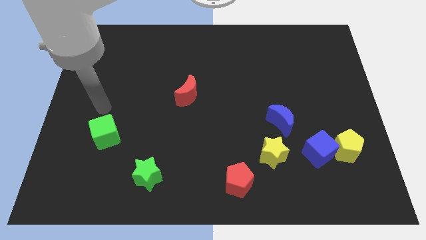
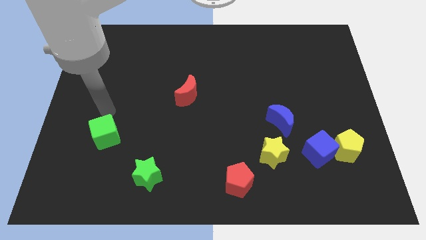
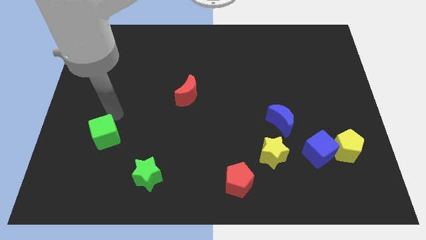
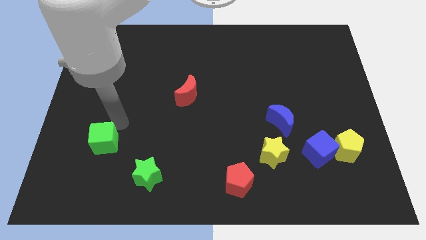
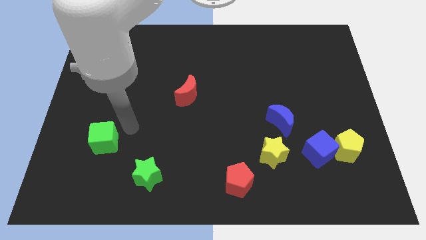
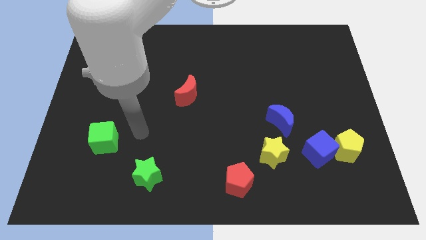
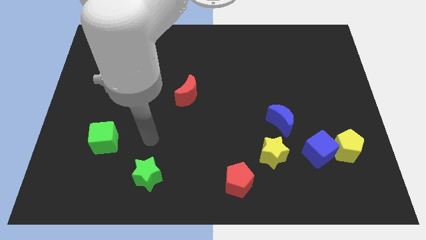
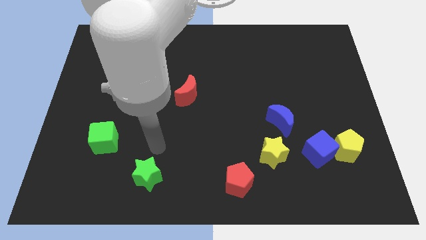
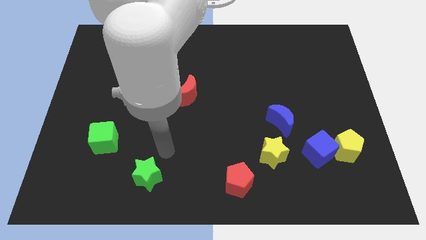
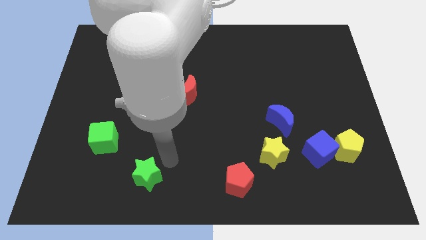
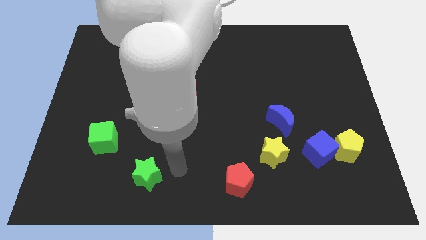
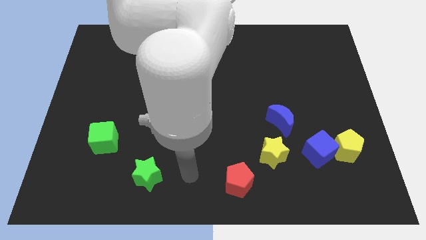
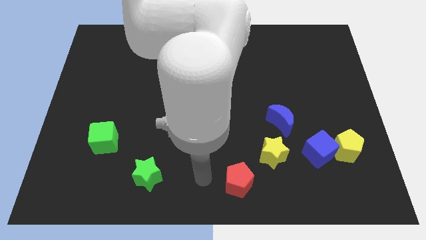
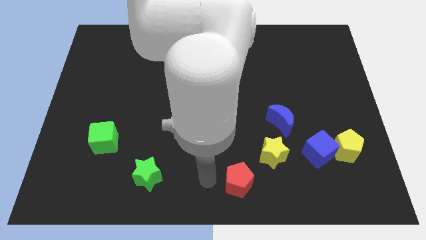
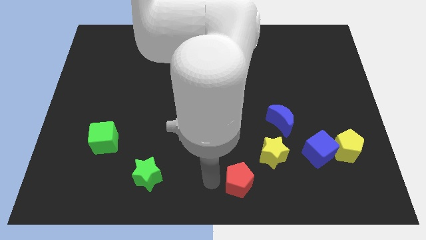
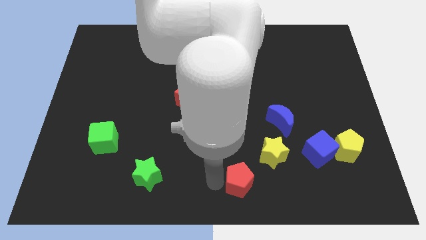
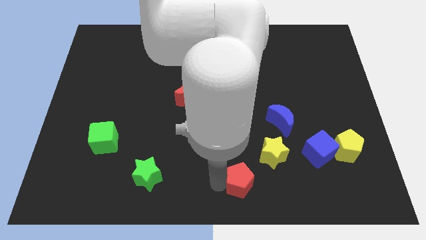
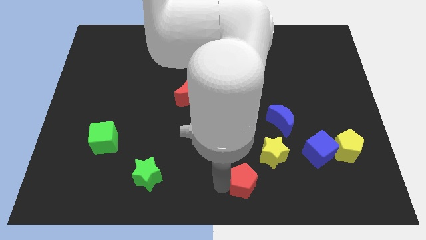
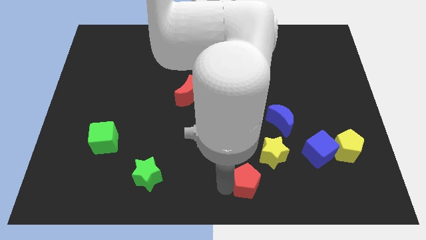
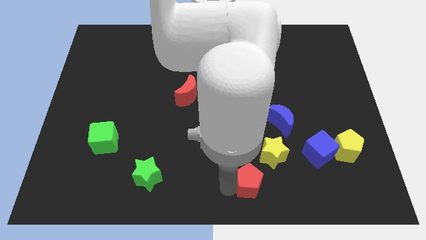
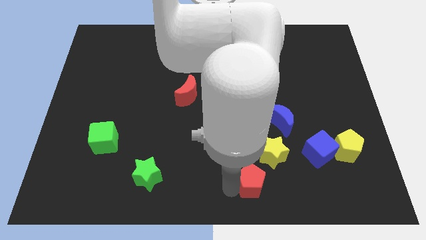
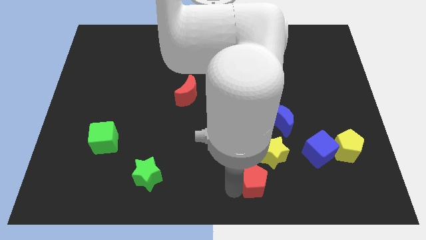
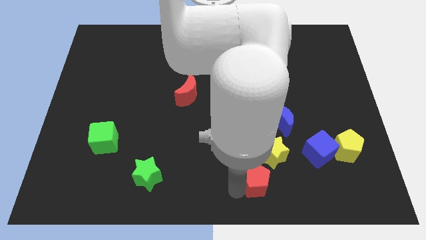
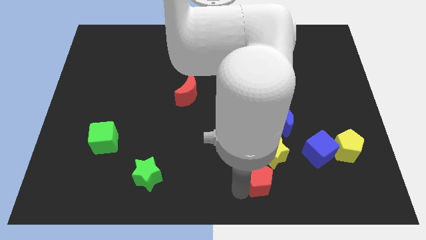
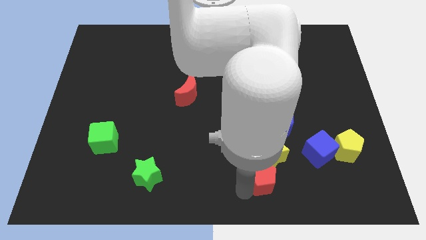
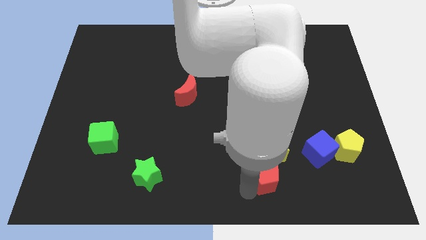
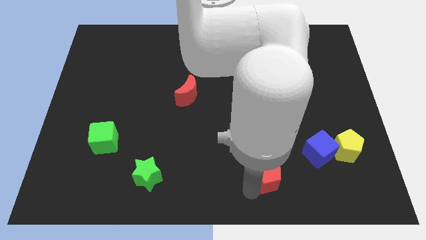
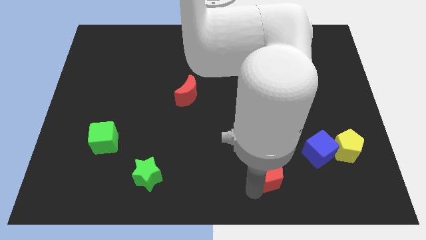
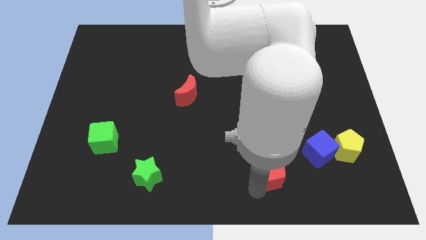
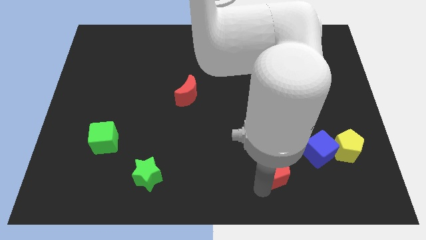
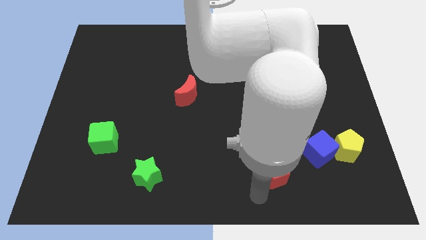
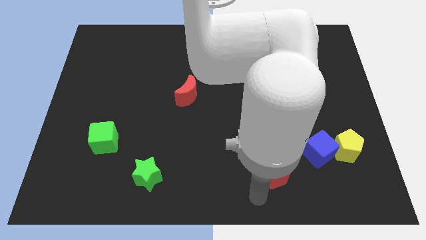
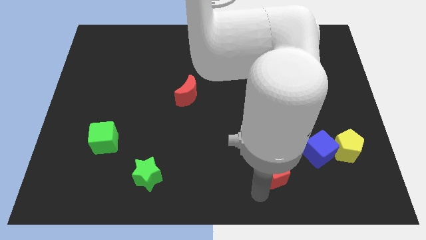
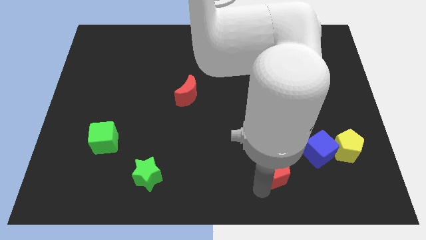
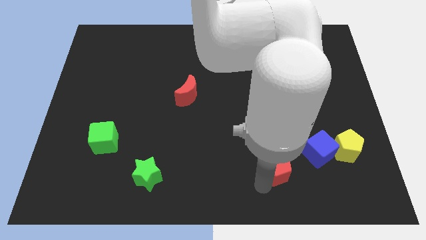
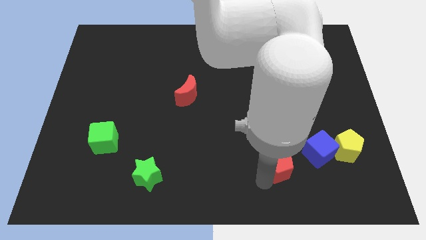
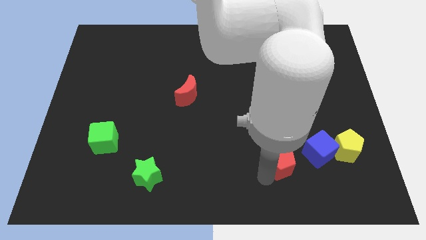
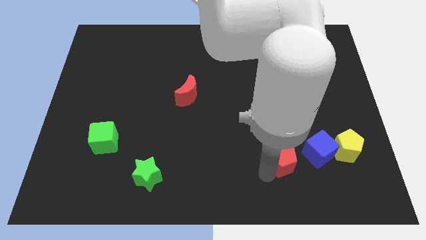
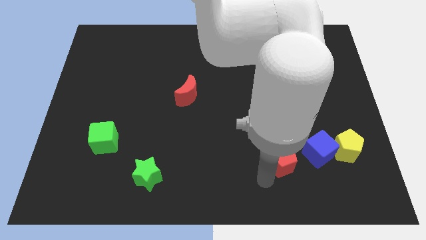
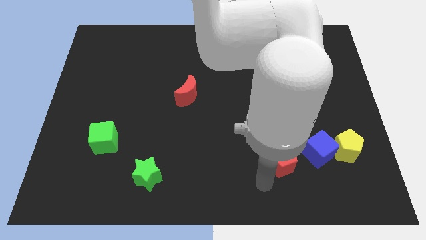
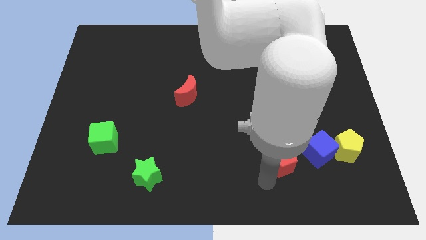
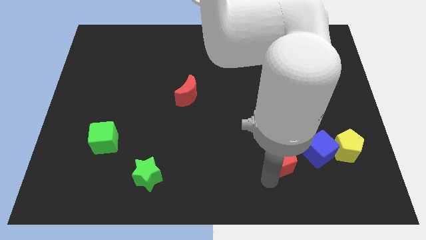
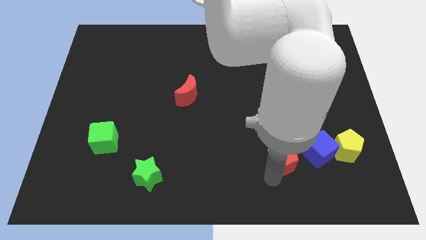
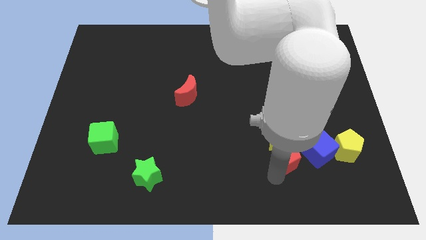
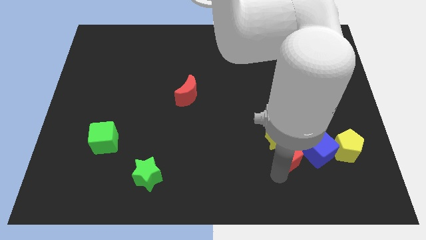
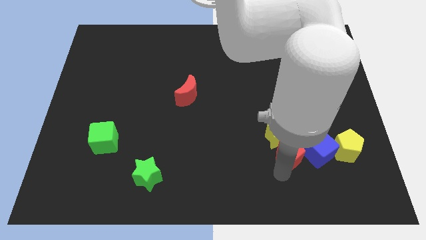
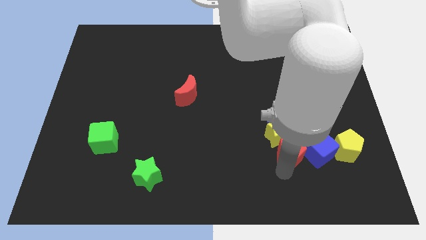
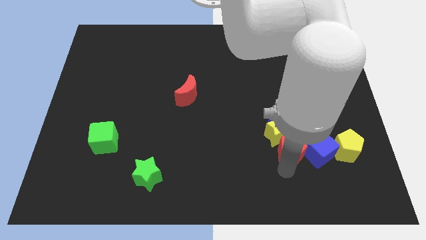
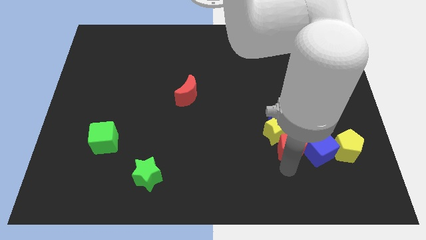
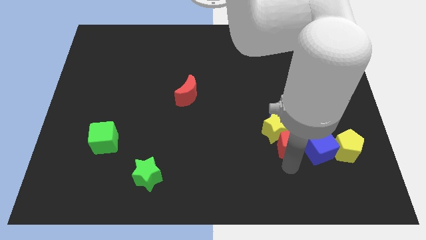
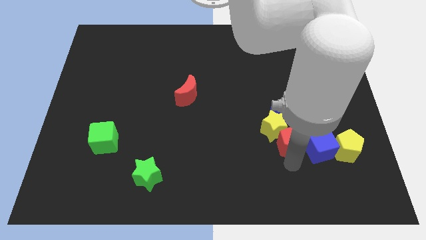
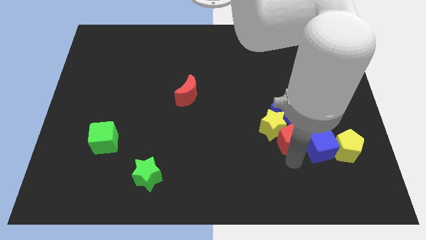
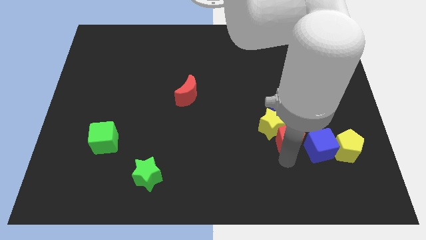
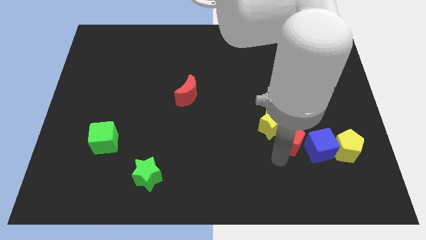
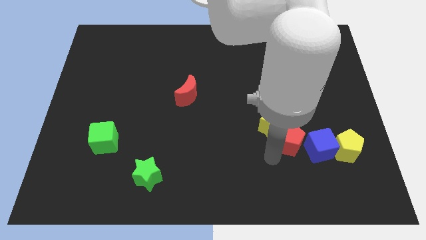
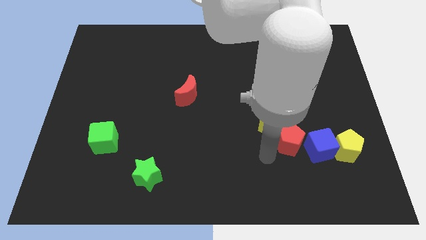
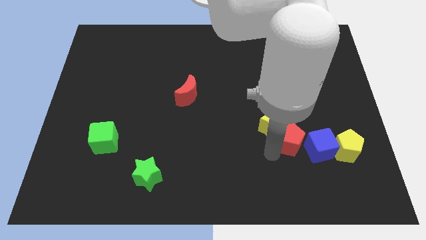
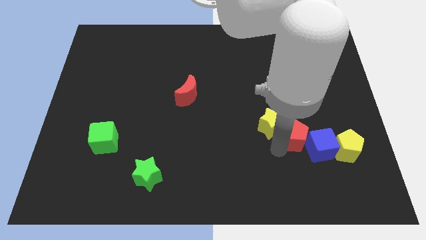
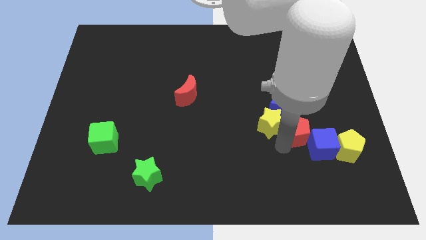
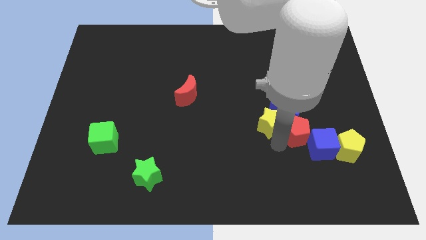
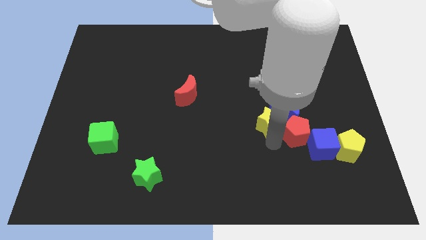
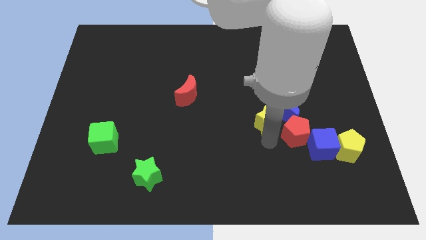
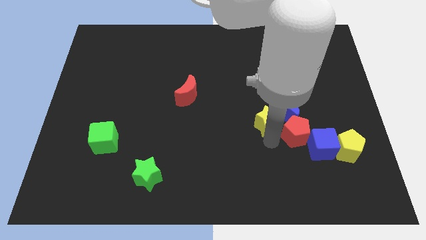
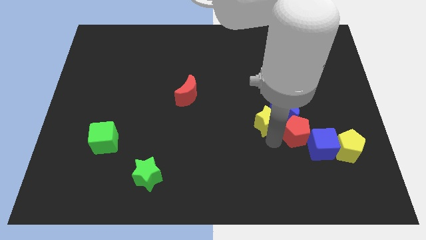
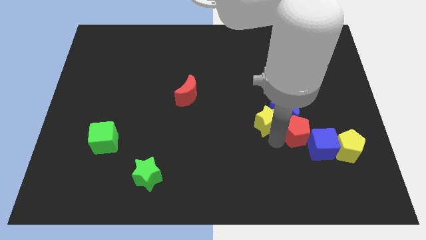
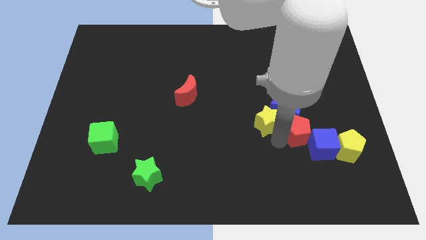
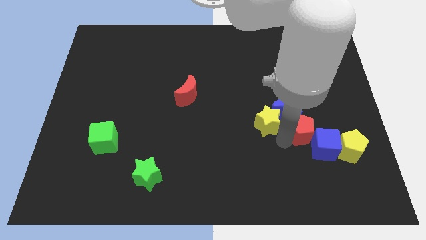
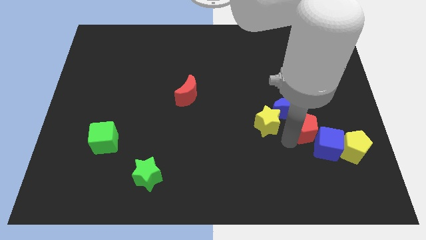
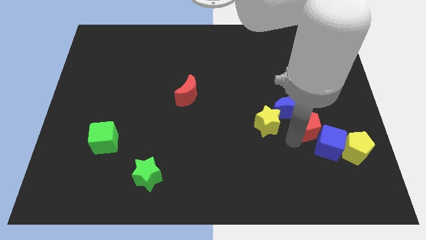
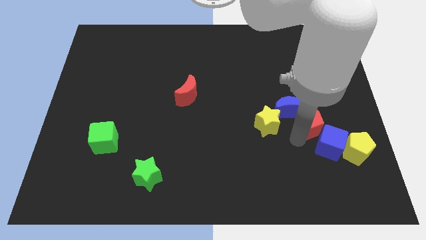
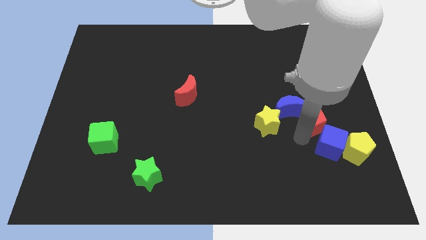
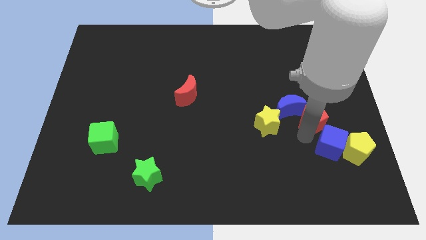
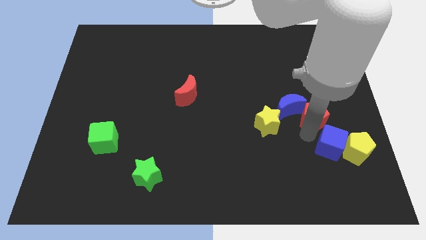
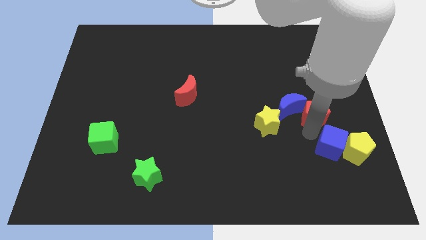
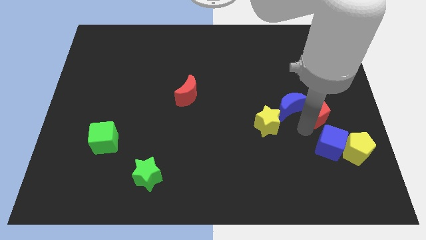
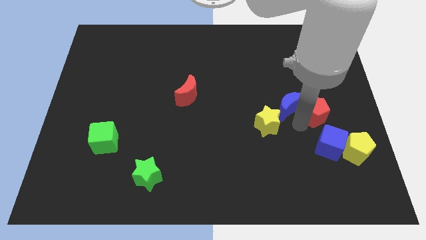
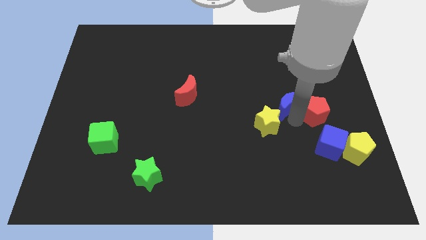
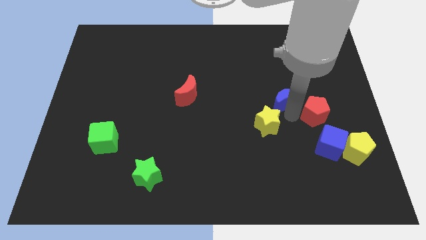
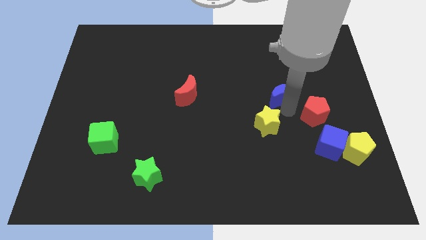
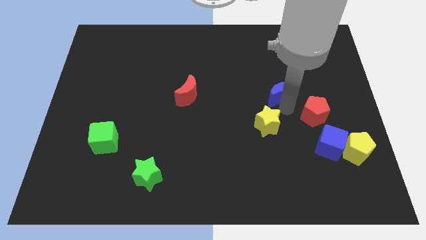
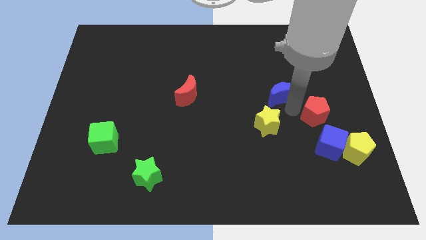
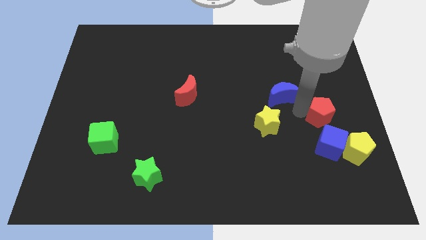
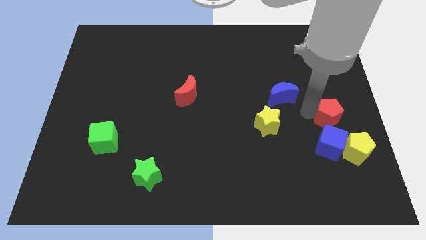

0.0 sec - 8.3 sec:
move the red pentagon to the center right
